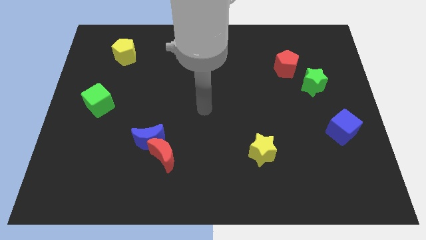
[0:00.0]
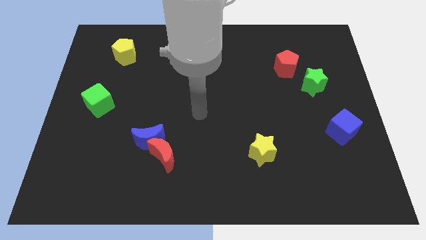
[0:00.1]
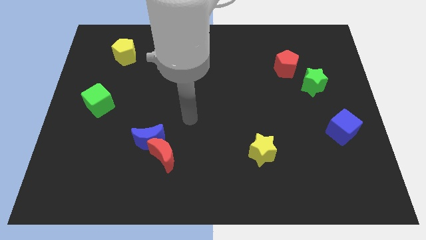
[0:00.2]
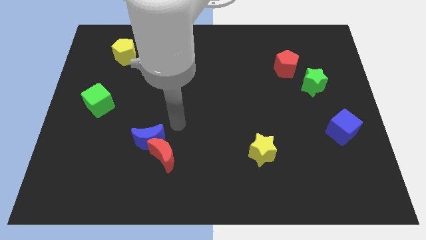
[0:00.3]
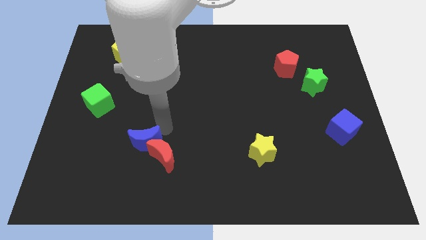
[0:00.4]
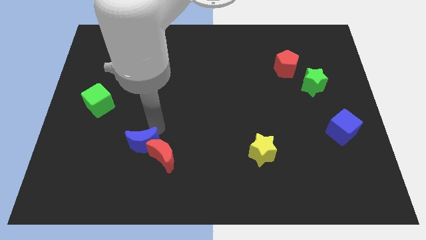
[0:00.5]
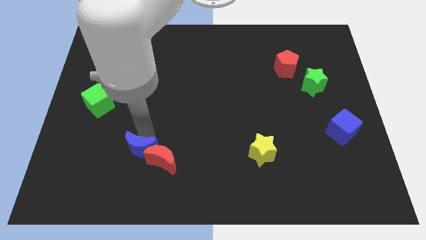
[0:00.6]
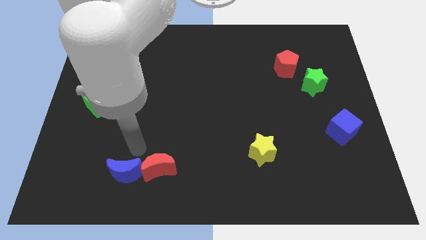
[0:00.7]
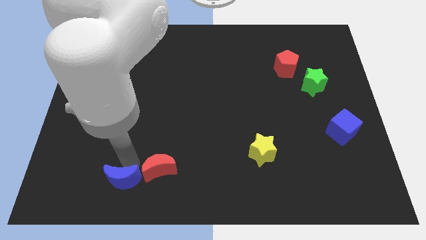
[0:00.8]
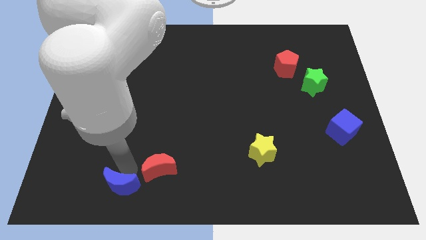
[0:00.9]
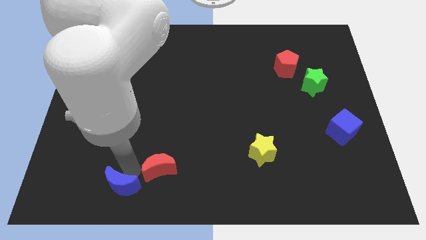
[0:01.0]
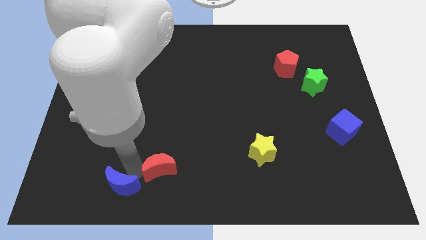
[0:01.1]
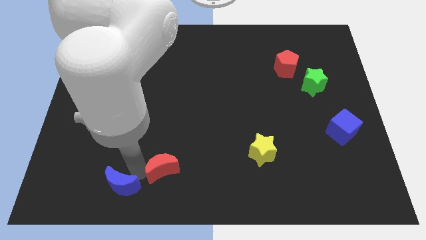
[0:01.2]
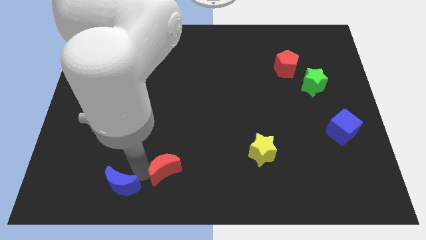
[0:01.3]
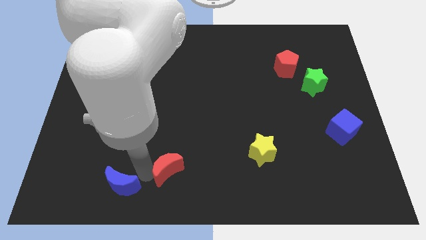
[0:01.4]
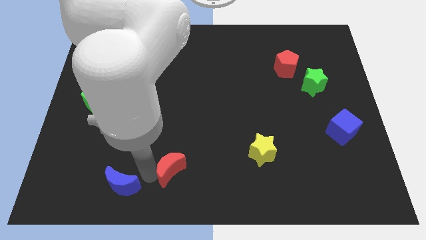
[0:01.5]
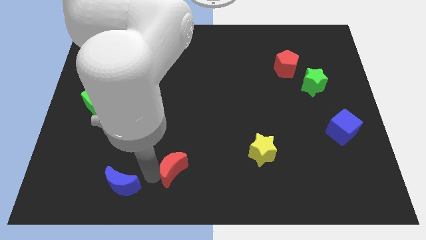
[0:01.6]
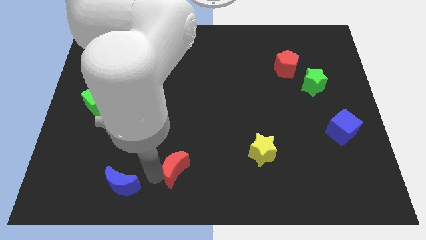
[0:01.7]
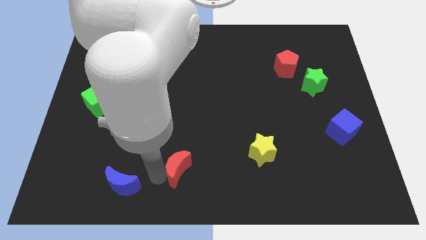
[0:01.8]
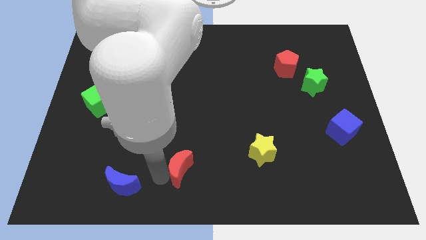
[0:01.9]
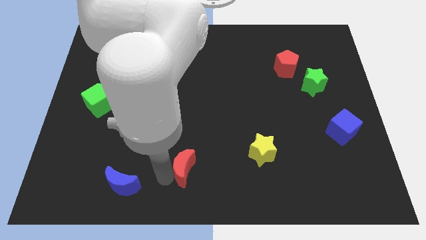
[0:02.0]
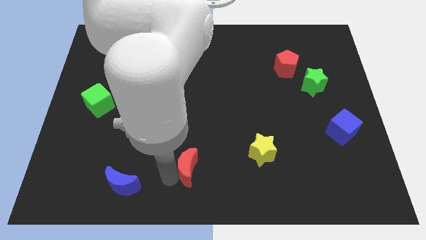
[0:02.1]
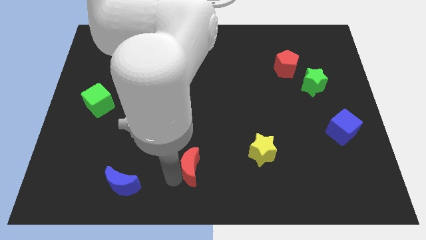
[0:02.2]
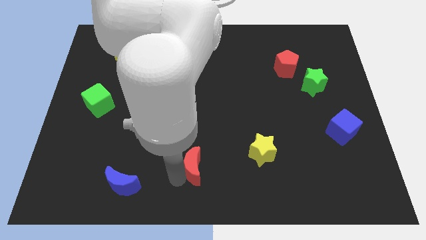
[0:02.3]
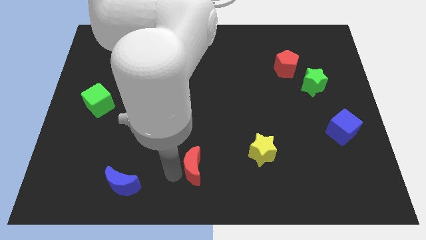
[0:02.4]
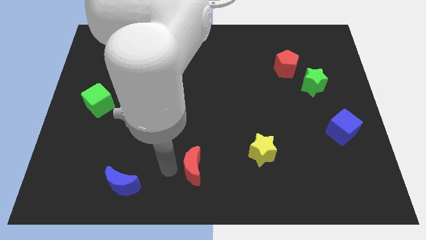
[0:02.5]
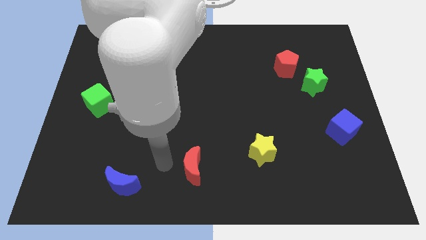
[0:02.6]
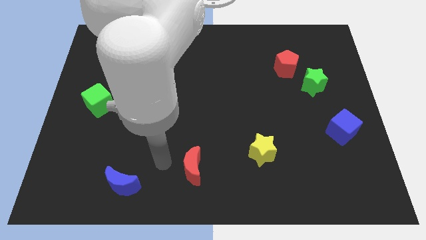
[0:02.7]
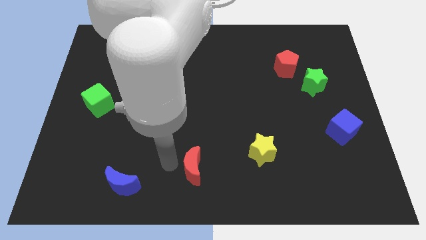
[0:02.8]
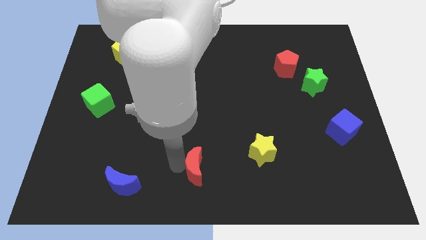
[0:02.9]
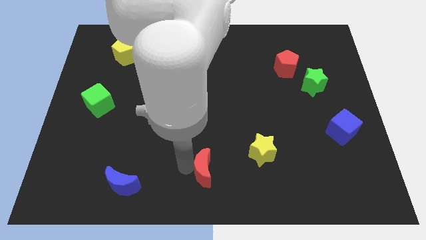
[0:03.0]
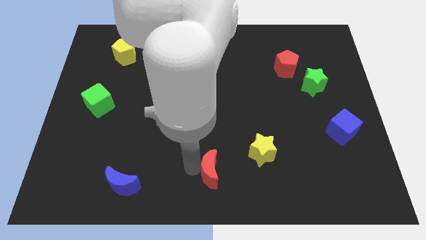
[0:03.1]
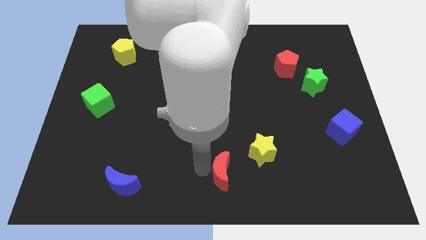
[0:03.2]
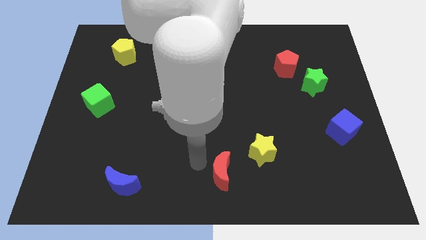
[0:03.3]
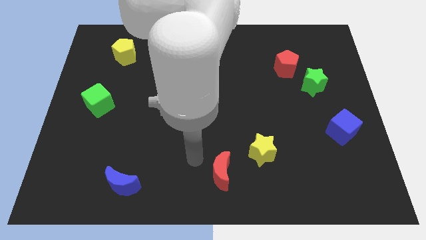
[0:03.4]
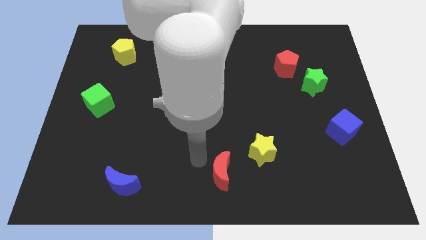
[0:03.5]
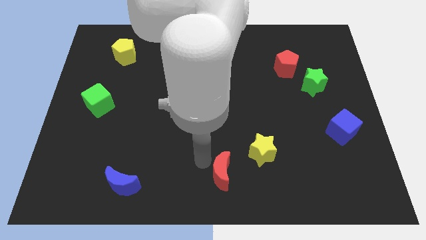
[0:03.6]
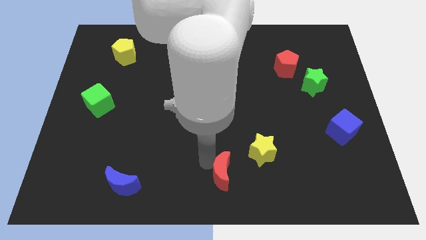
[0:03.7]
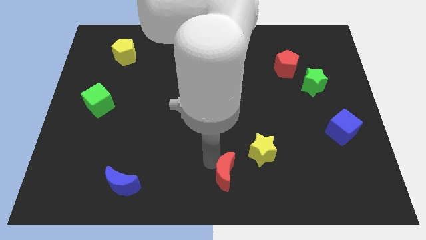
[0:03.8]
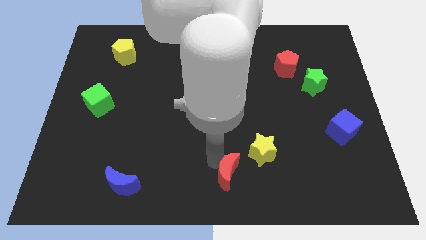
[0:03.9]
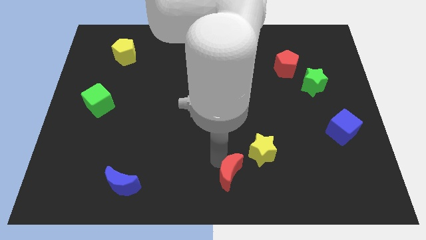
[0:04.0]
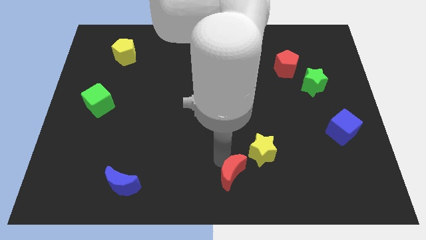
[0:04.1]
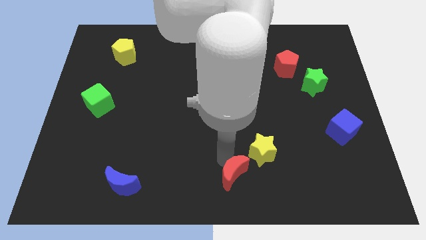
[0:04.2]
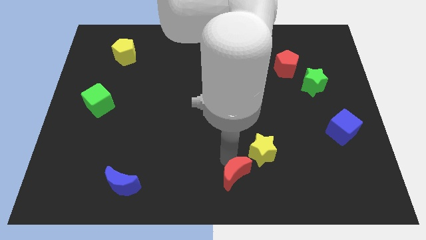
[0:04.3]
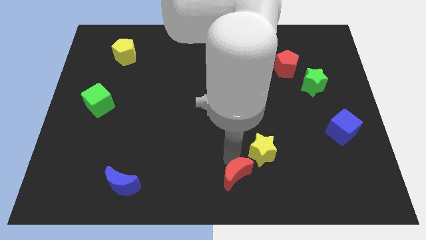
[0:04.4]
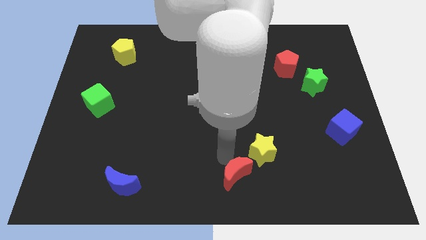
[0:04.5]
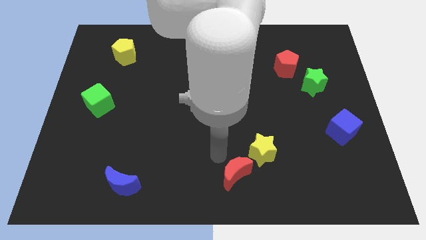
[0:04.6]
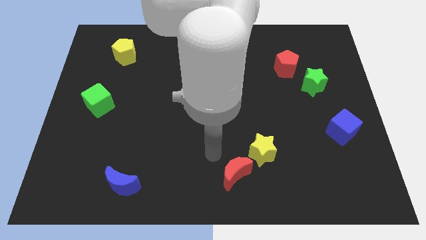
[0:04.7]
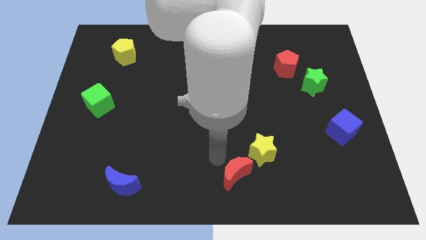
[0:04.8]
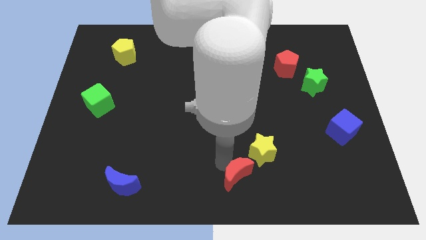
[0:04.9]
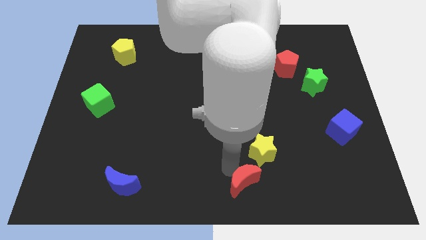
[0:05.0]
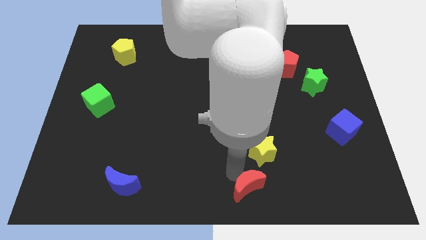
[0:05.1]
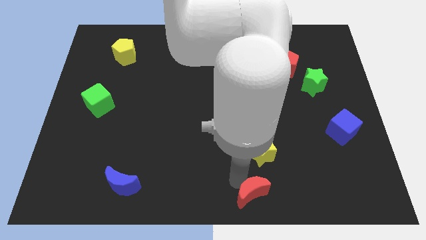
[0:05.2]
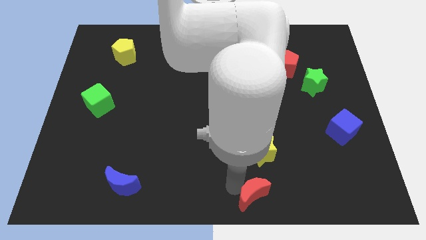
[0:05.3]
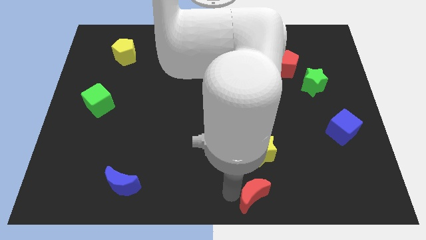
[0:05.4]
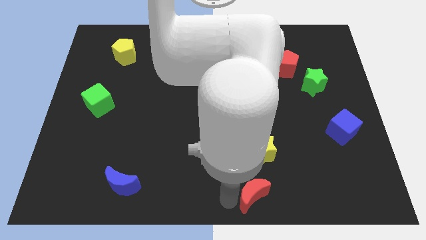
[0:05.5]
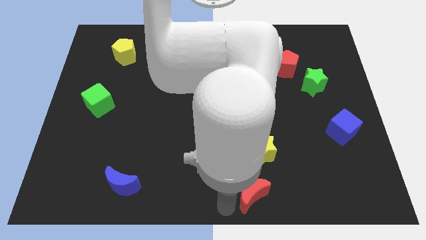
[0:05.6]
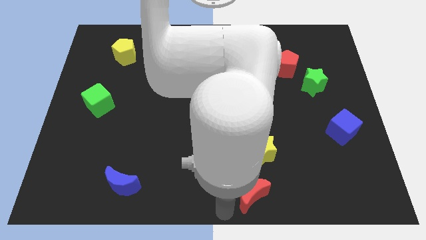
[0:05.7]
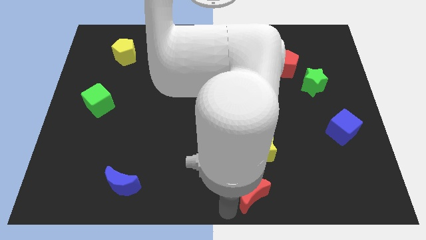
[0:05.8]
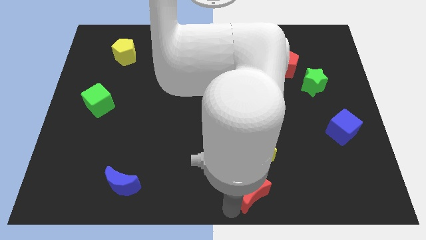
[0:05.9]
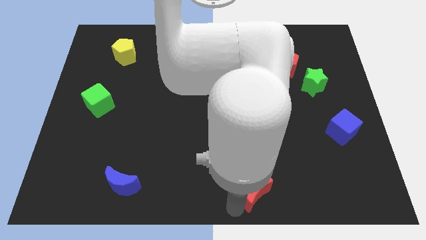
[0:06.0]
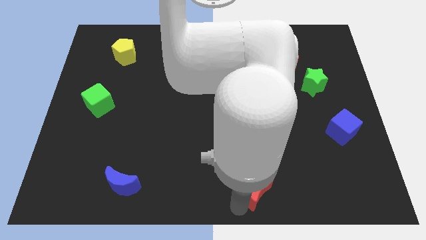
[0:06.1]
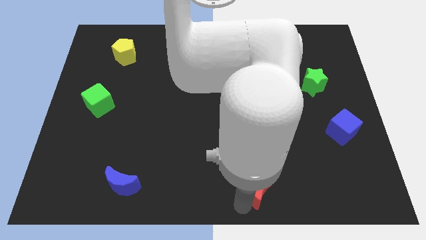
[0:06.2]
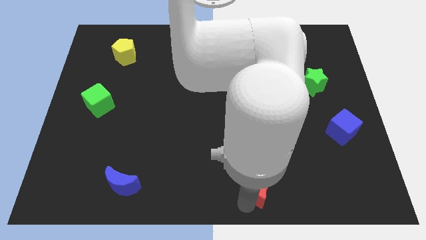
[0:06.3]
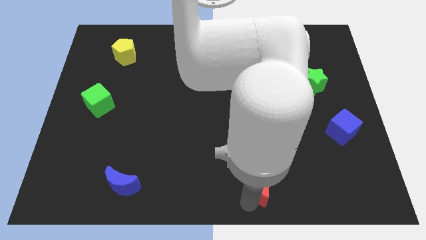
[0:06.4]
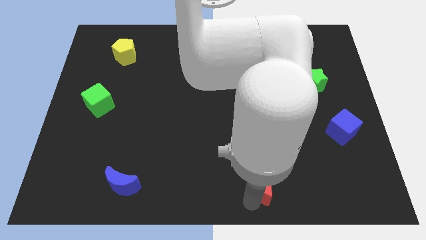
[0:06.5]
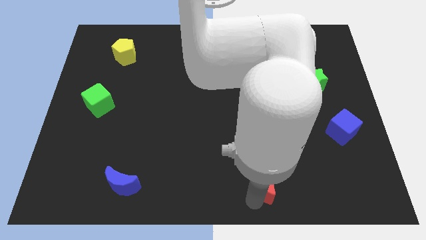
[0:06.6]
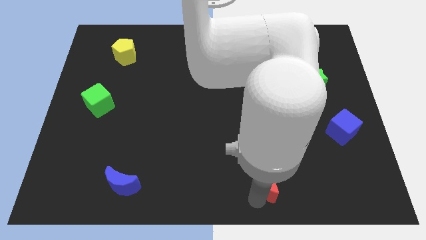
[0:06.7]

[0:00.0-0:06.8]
slide the red moon to the right

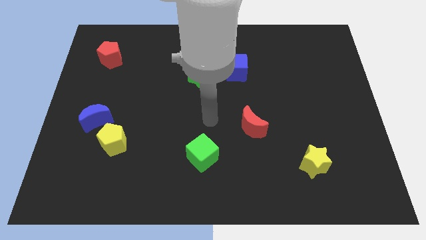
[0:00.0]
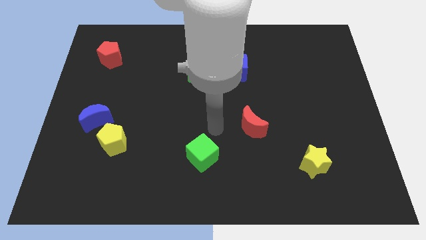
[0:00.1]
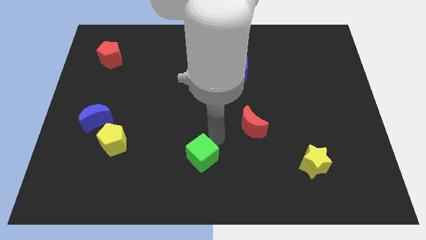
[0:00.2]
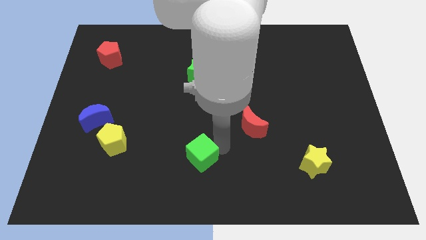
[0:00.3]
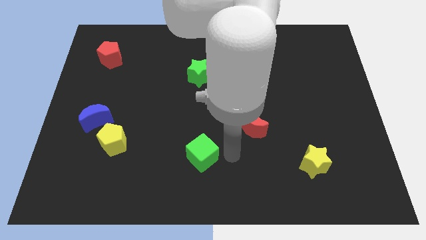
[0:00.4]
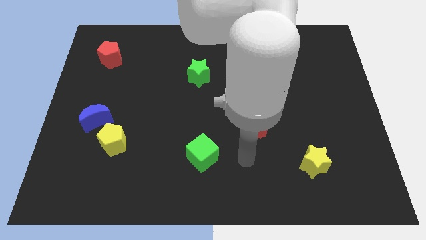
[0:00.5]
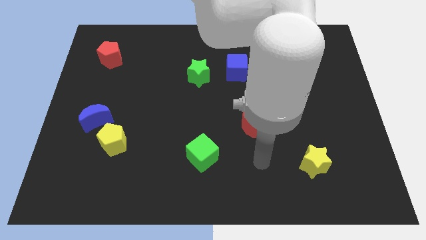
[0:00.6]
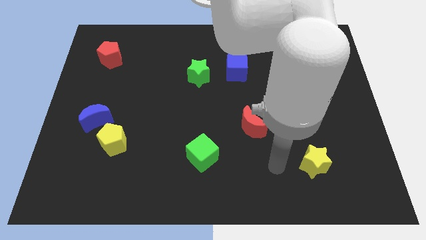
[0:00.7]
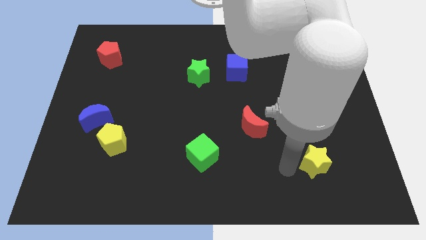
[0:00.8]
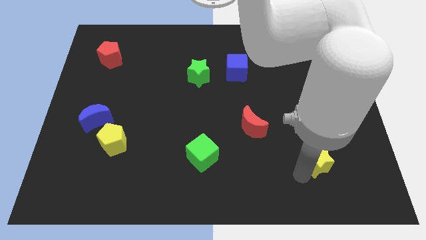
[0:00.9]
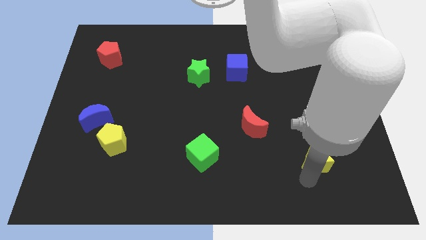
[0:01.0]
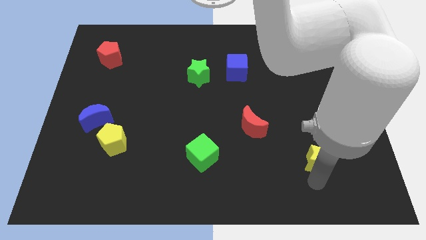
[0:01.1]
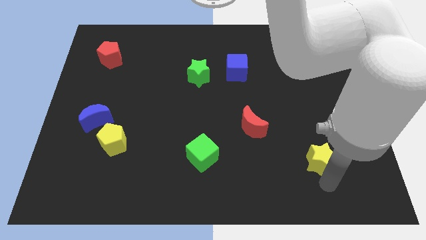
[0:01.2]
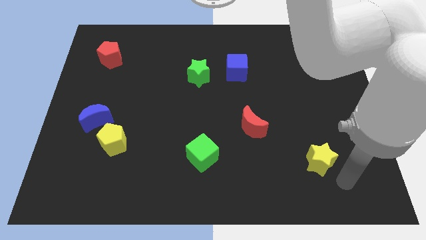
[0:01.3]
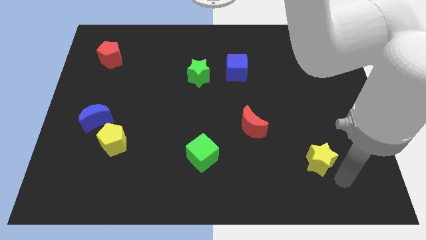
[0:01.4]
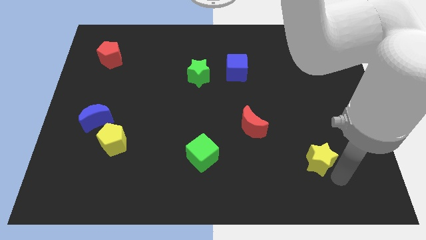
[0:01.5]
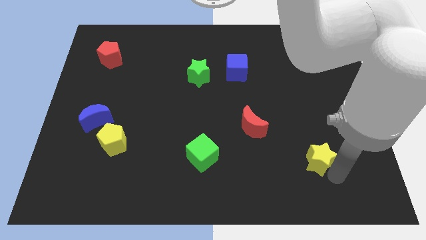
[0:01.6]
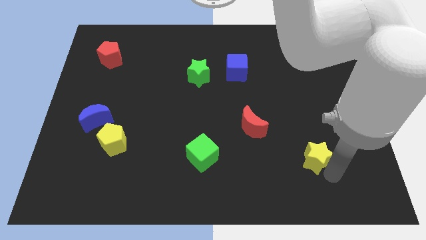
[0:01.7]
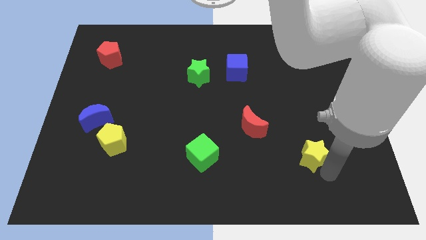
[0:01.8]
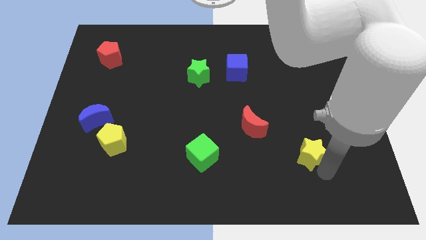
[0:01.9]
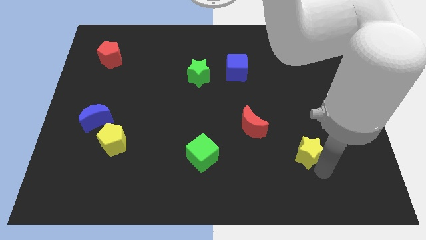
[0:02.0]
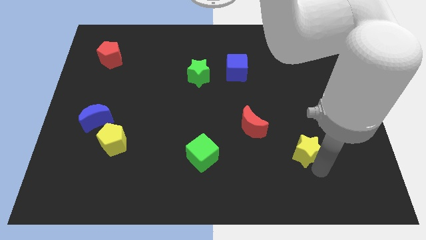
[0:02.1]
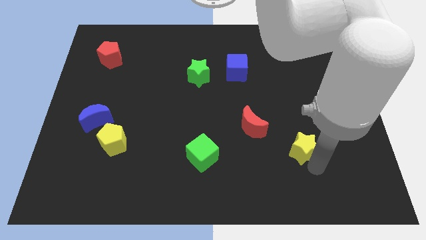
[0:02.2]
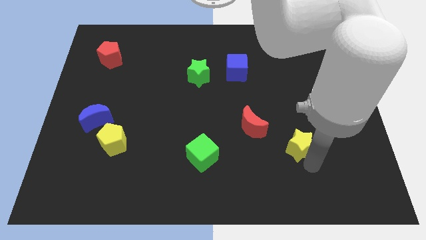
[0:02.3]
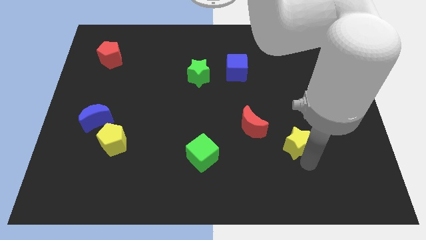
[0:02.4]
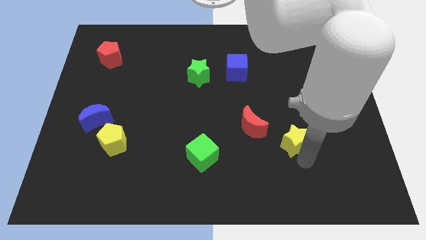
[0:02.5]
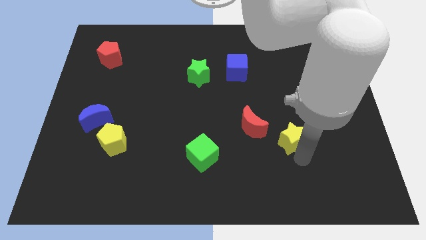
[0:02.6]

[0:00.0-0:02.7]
push the yellow star a little upwards and left
